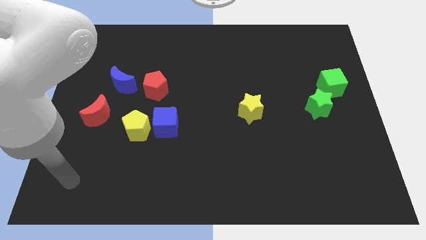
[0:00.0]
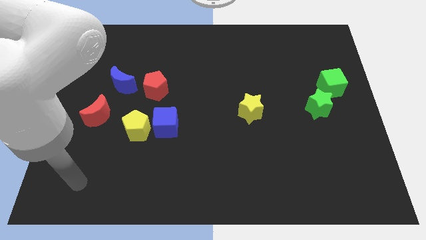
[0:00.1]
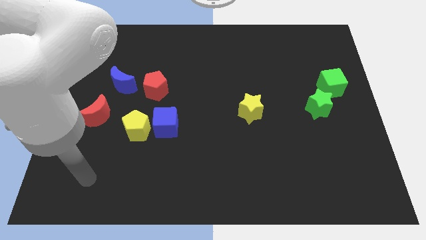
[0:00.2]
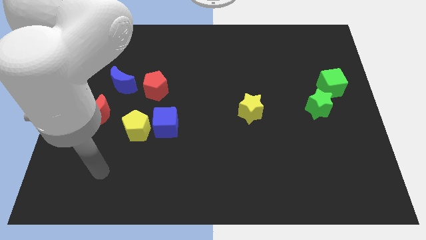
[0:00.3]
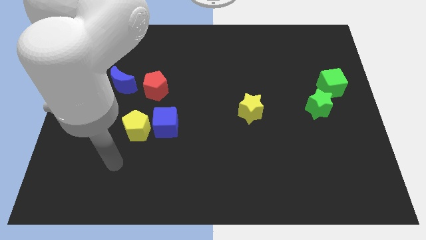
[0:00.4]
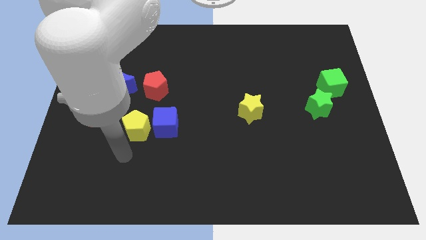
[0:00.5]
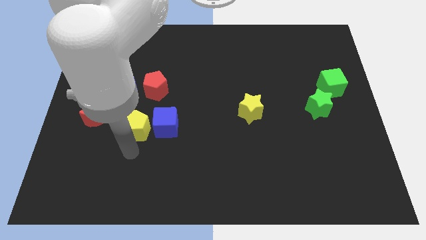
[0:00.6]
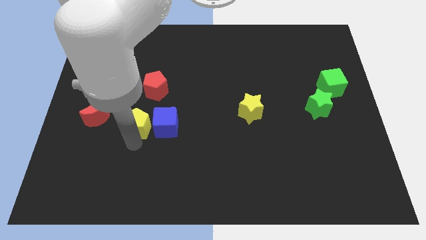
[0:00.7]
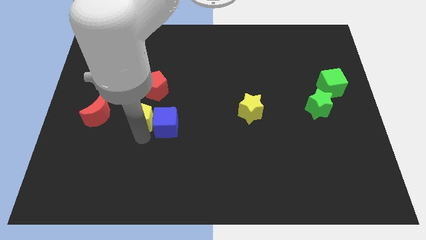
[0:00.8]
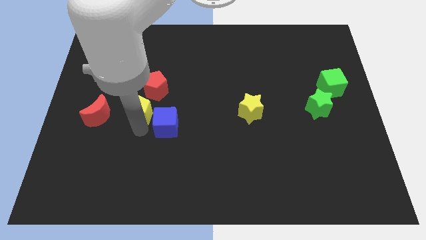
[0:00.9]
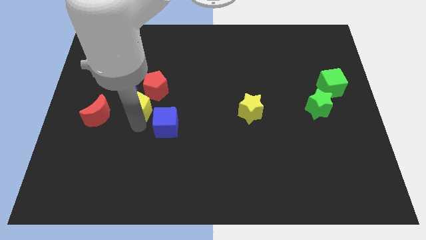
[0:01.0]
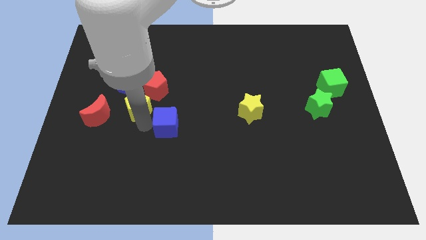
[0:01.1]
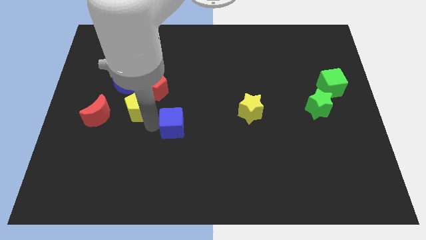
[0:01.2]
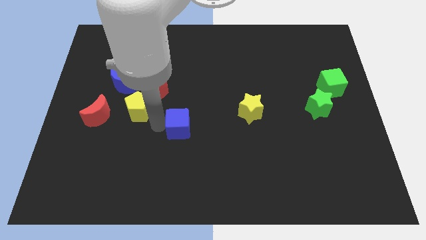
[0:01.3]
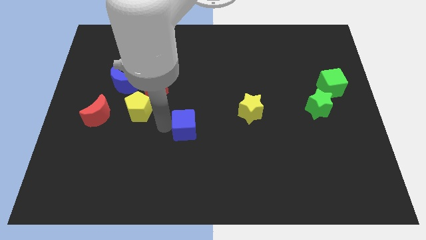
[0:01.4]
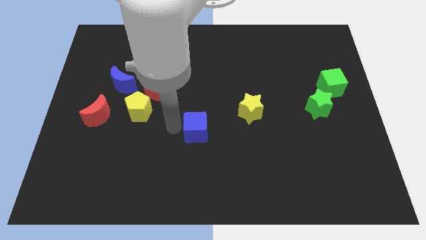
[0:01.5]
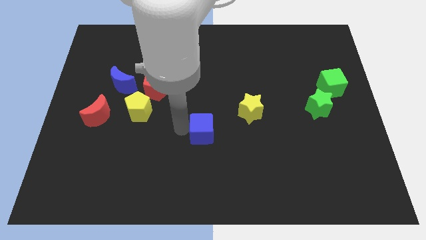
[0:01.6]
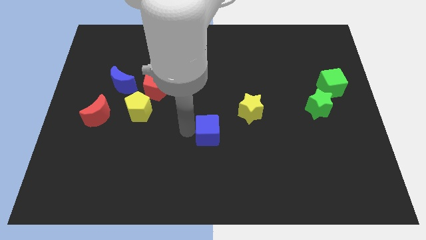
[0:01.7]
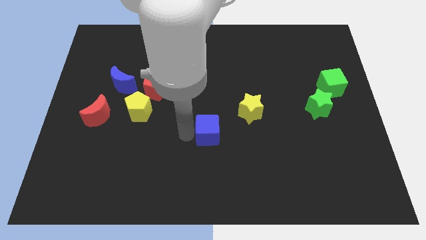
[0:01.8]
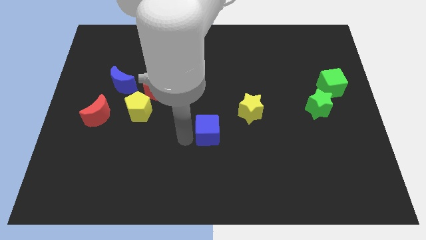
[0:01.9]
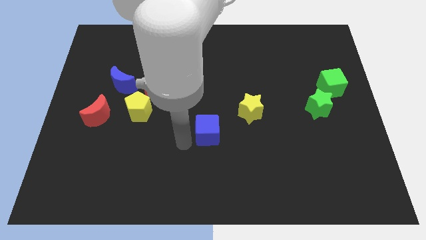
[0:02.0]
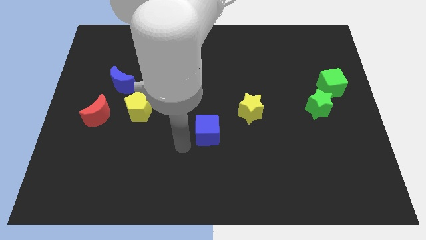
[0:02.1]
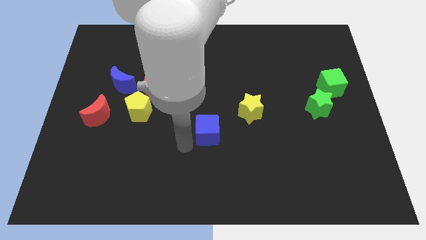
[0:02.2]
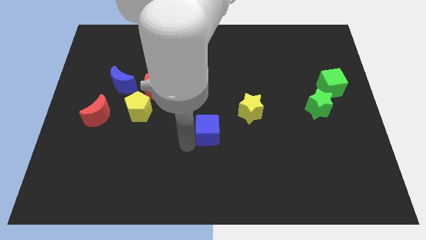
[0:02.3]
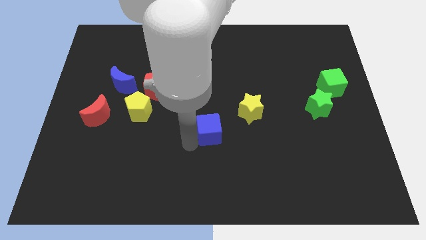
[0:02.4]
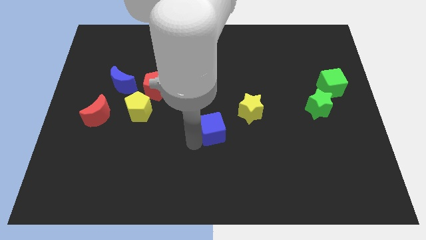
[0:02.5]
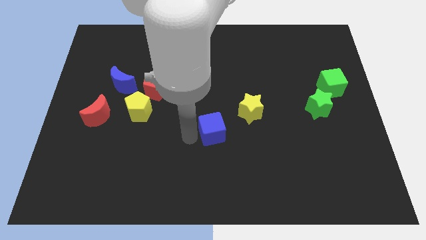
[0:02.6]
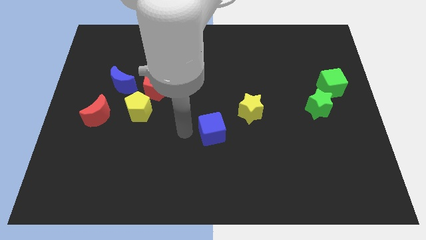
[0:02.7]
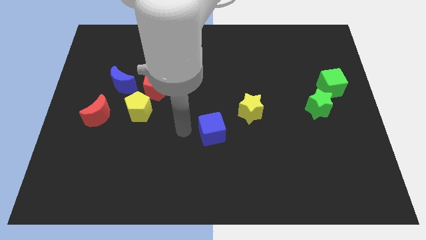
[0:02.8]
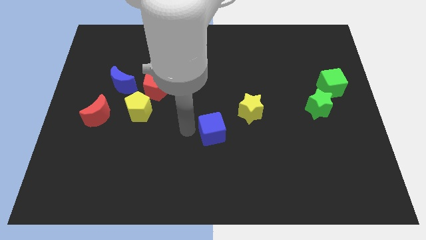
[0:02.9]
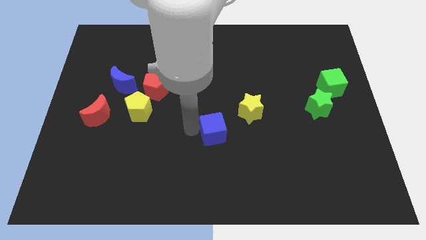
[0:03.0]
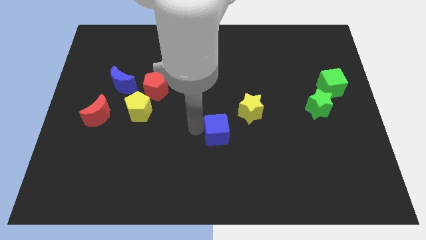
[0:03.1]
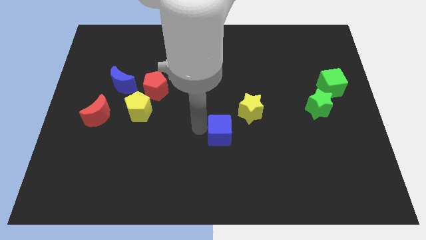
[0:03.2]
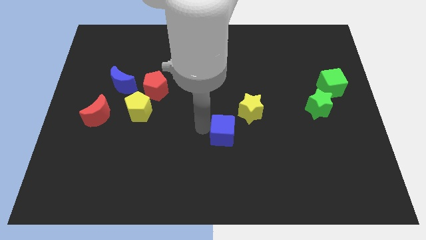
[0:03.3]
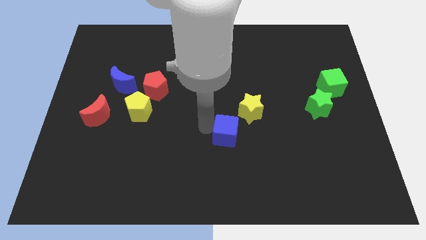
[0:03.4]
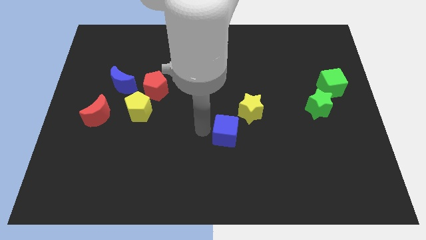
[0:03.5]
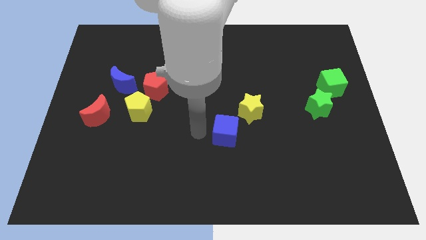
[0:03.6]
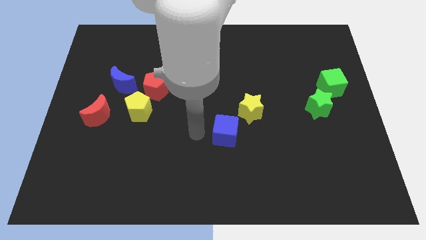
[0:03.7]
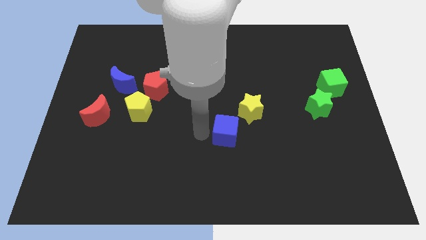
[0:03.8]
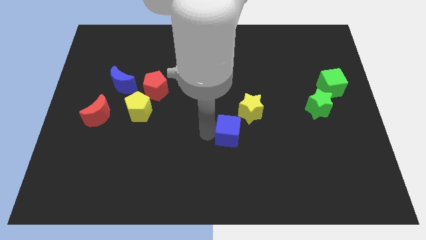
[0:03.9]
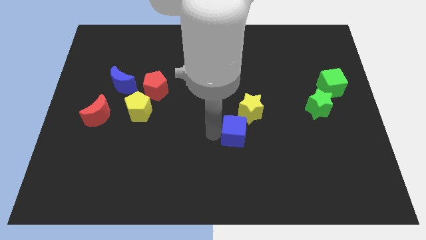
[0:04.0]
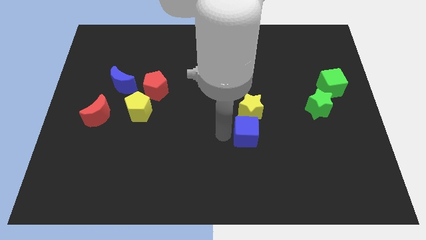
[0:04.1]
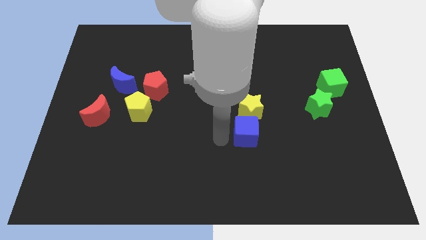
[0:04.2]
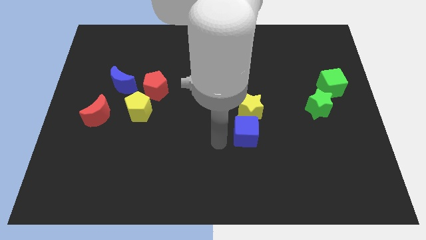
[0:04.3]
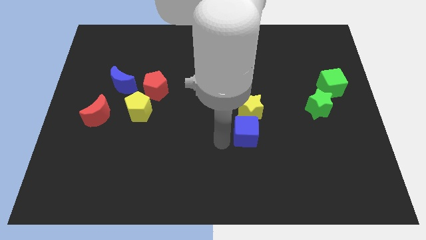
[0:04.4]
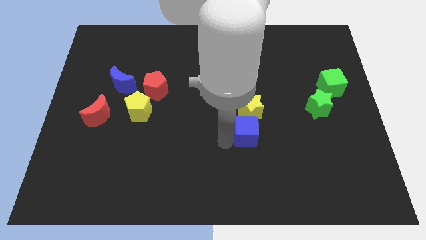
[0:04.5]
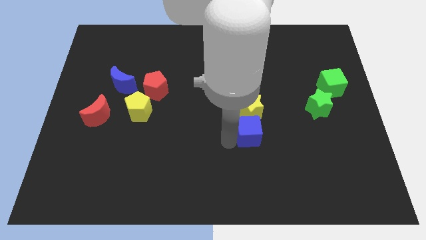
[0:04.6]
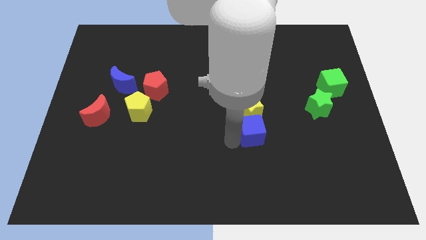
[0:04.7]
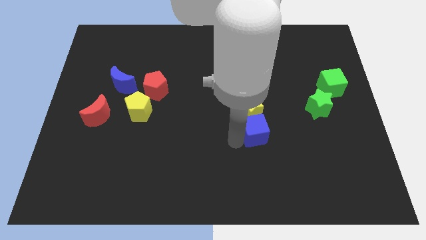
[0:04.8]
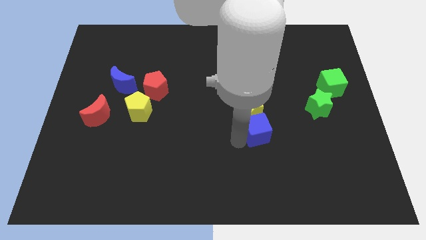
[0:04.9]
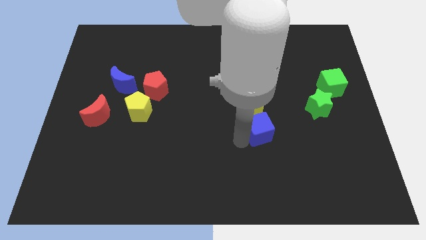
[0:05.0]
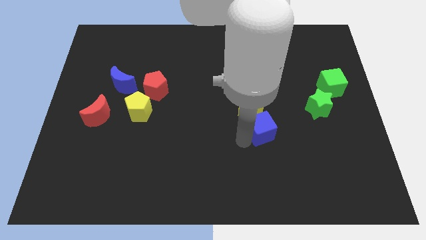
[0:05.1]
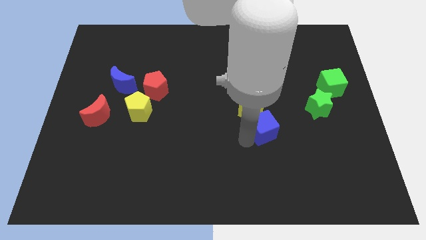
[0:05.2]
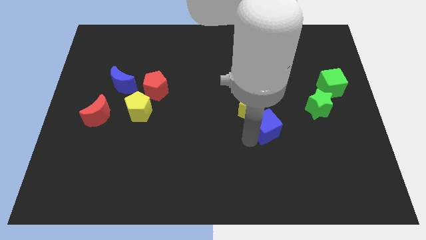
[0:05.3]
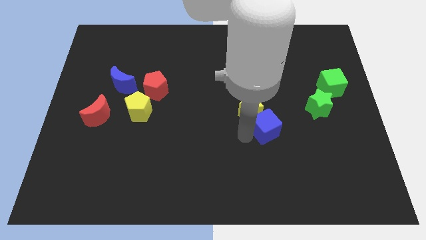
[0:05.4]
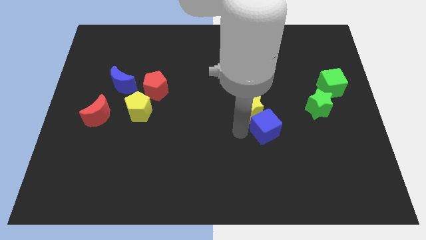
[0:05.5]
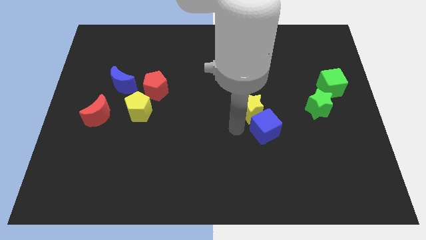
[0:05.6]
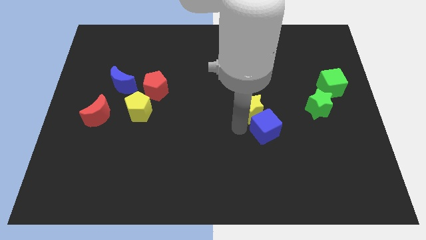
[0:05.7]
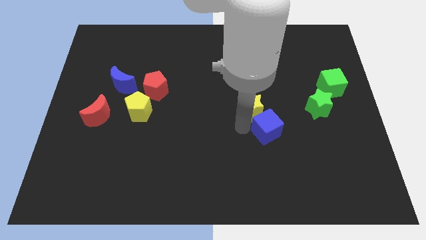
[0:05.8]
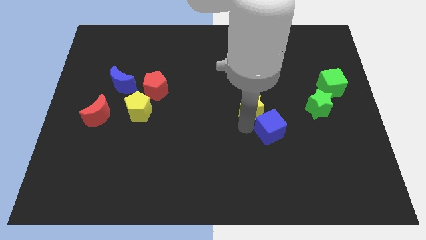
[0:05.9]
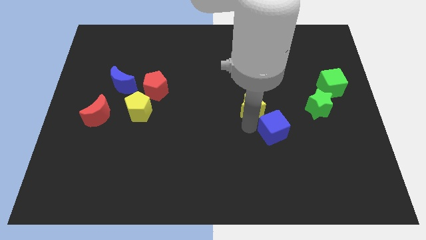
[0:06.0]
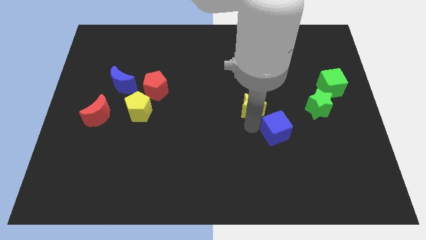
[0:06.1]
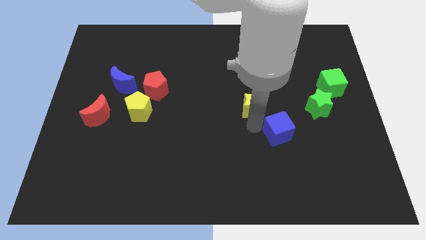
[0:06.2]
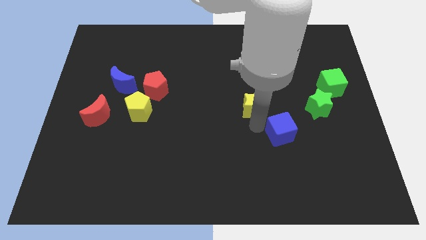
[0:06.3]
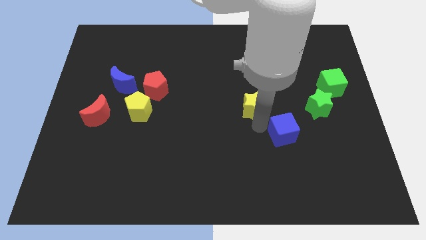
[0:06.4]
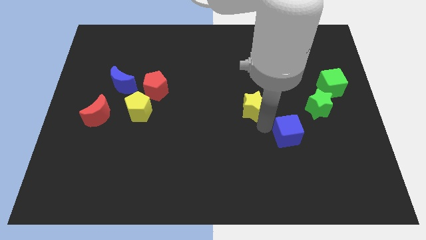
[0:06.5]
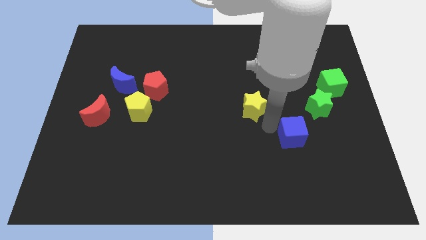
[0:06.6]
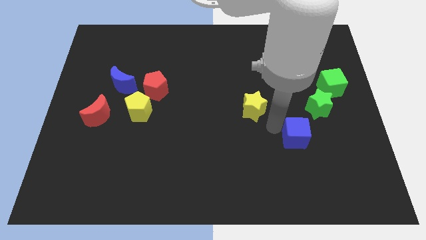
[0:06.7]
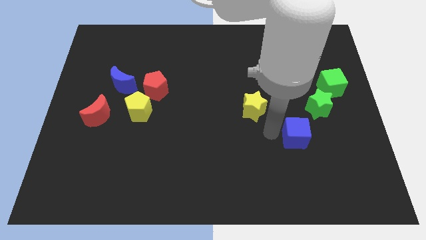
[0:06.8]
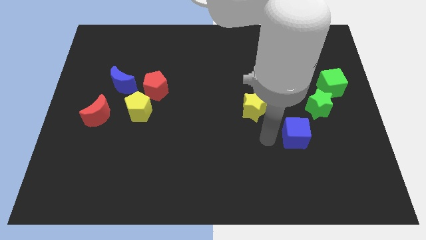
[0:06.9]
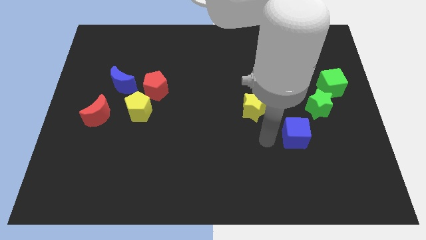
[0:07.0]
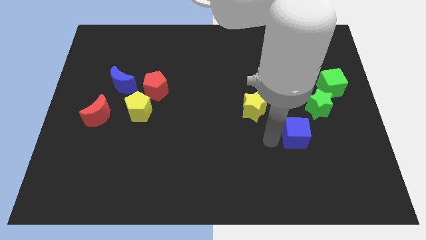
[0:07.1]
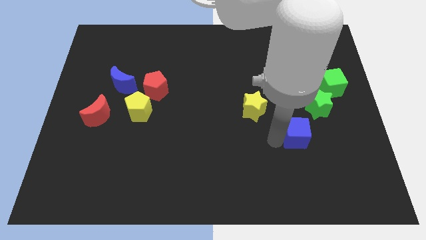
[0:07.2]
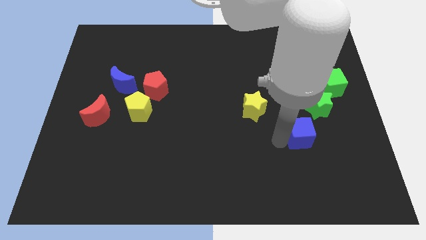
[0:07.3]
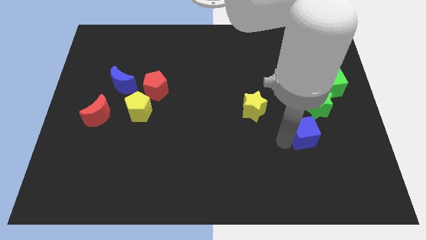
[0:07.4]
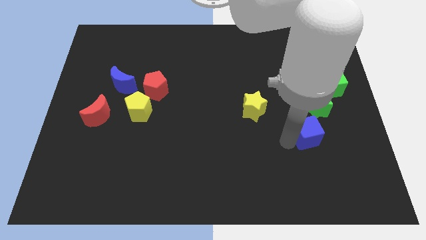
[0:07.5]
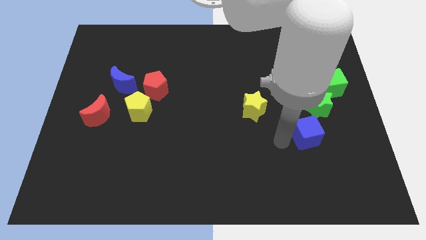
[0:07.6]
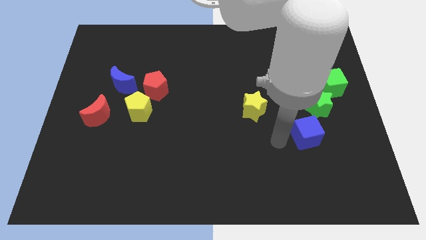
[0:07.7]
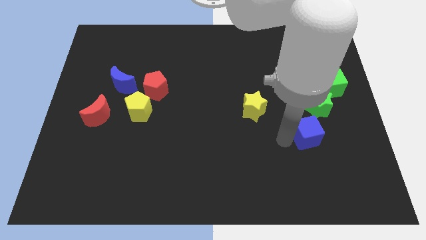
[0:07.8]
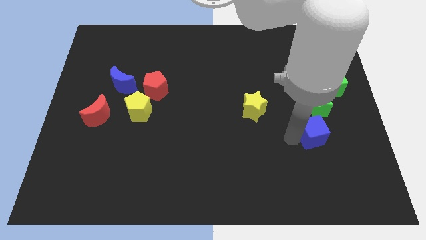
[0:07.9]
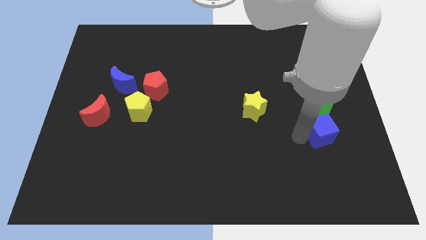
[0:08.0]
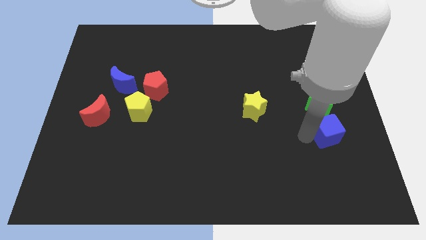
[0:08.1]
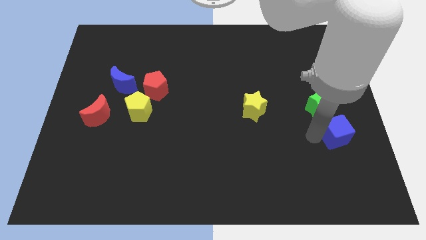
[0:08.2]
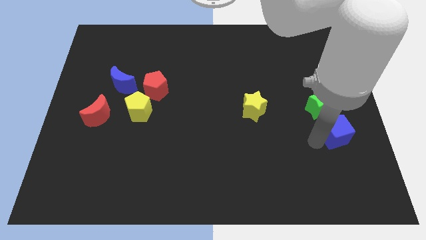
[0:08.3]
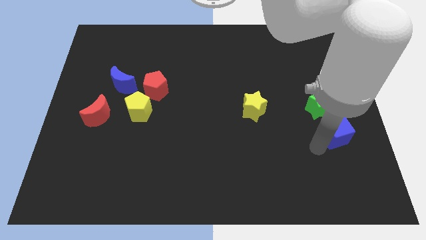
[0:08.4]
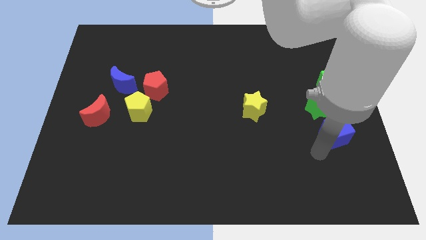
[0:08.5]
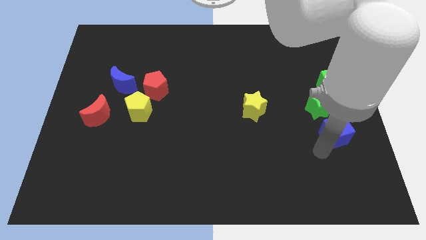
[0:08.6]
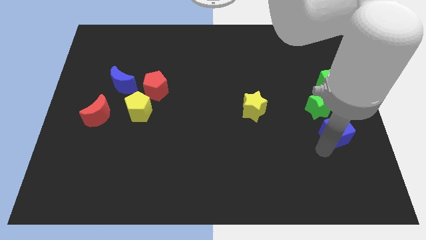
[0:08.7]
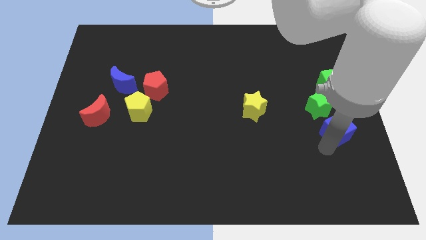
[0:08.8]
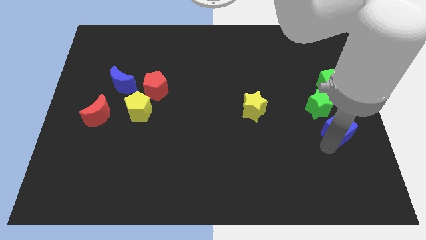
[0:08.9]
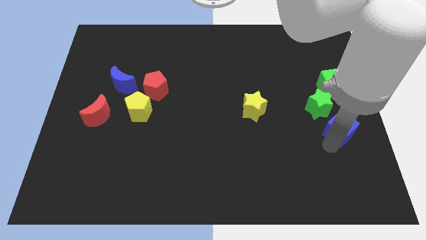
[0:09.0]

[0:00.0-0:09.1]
move the blue cube to the right side
